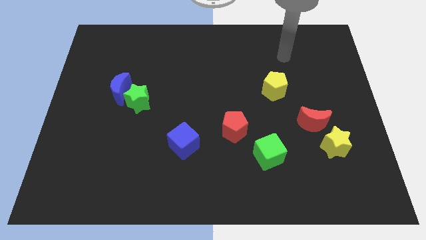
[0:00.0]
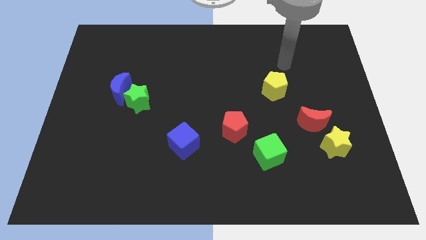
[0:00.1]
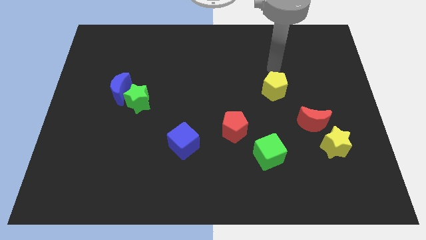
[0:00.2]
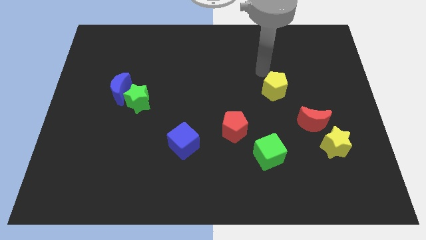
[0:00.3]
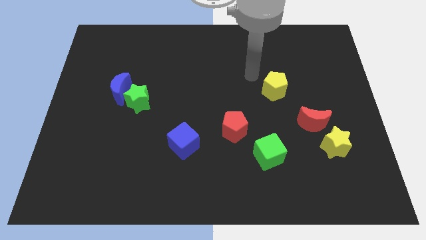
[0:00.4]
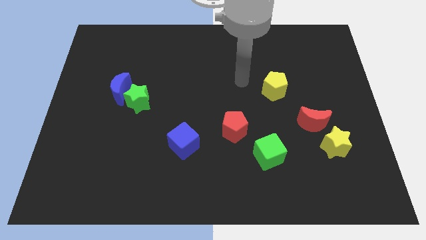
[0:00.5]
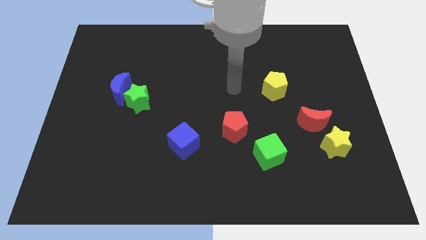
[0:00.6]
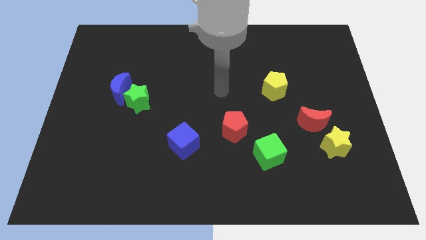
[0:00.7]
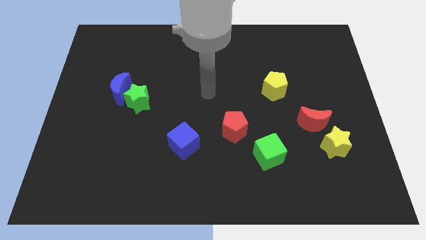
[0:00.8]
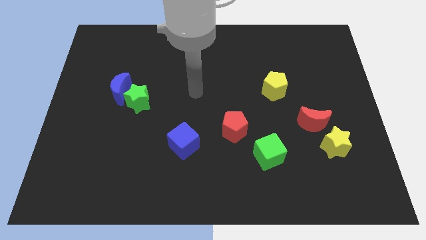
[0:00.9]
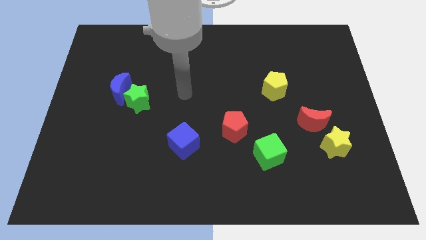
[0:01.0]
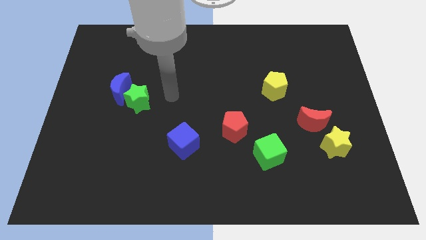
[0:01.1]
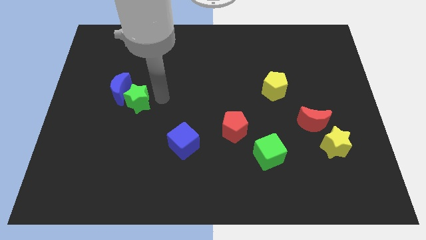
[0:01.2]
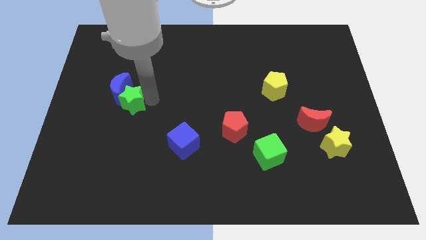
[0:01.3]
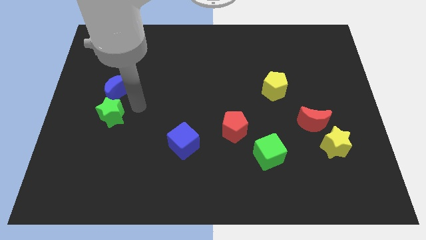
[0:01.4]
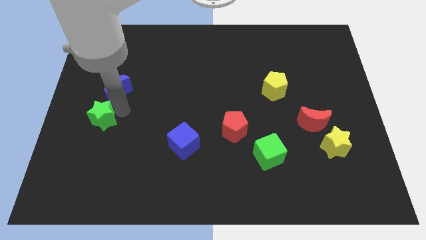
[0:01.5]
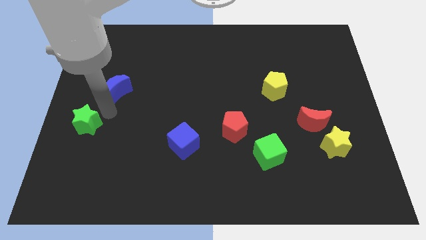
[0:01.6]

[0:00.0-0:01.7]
separate the blue moon from the green star

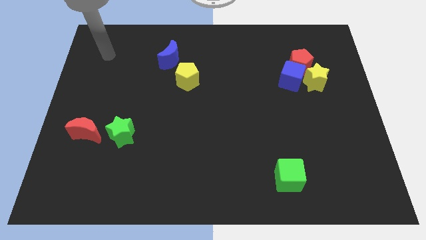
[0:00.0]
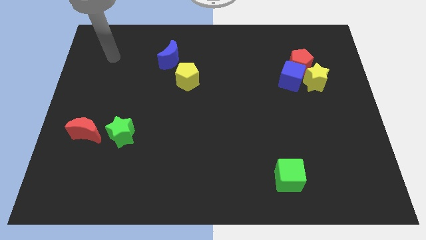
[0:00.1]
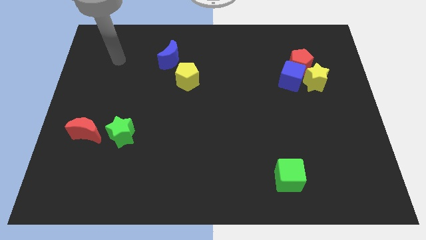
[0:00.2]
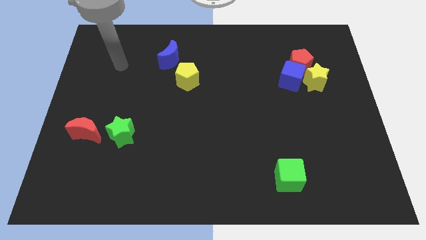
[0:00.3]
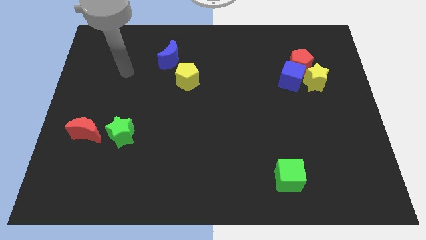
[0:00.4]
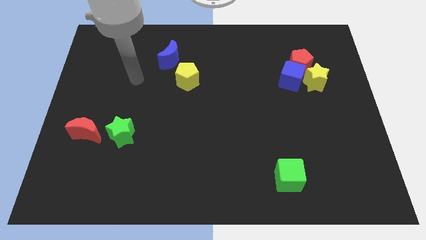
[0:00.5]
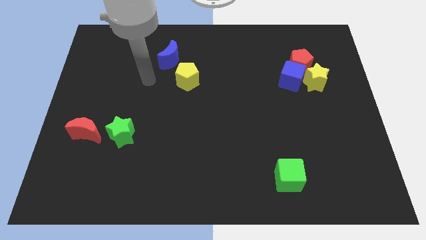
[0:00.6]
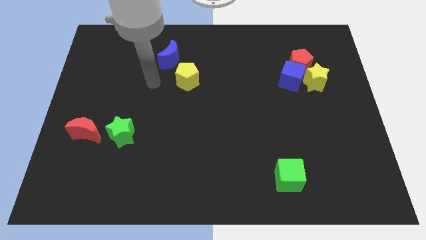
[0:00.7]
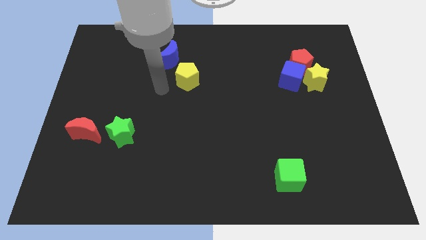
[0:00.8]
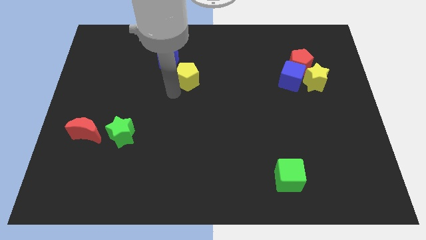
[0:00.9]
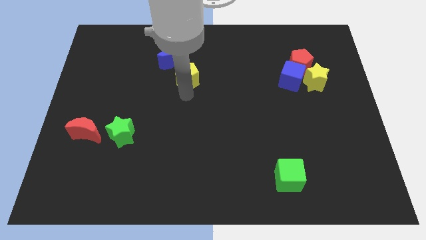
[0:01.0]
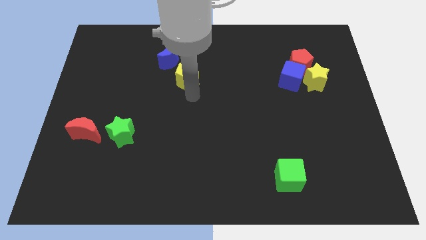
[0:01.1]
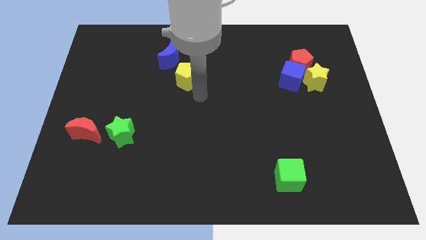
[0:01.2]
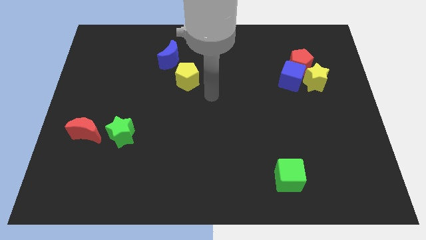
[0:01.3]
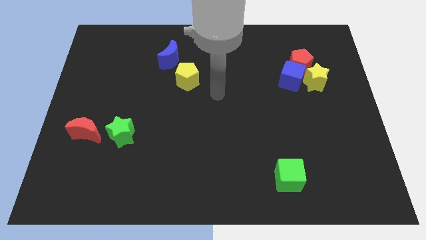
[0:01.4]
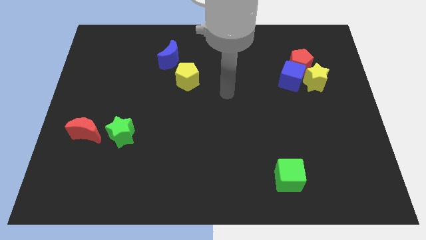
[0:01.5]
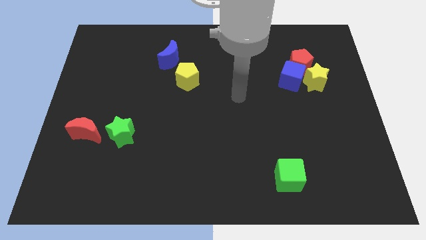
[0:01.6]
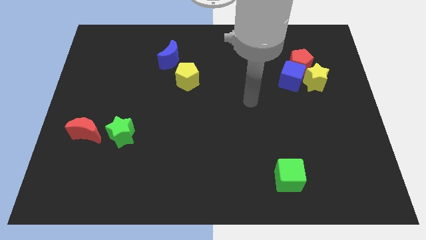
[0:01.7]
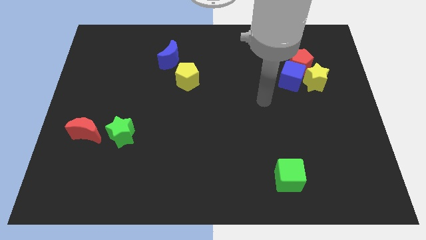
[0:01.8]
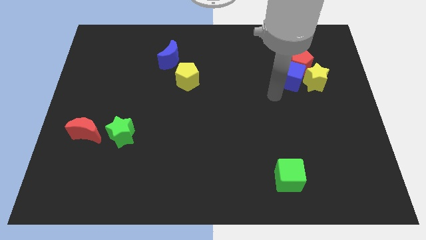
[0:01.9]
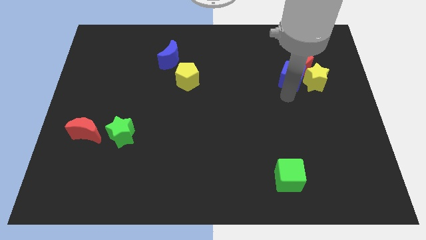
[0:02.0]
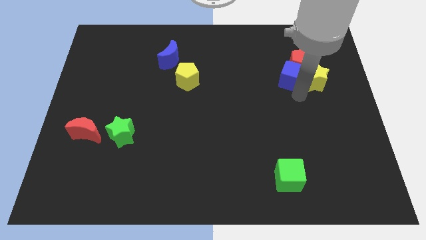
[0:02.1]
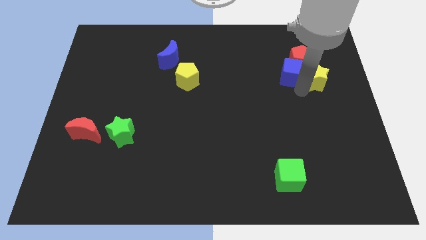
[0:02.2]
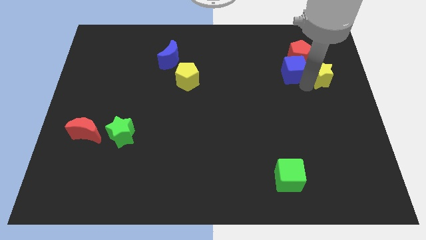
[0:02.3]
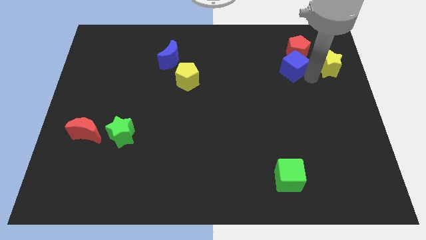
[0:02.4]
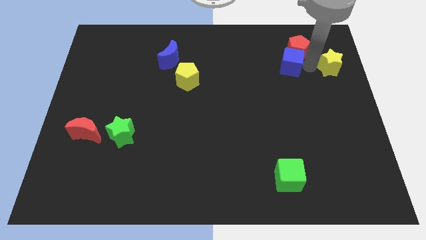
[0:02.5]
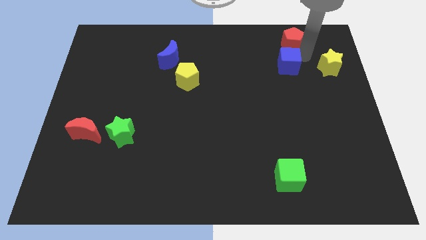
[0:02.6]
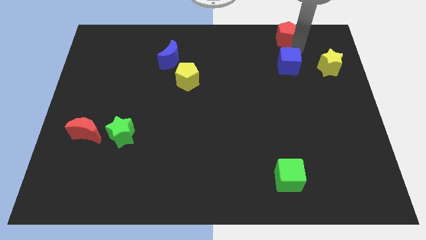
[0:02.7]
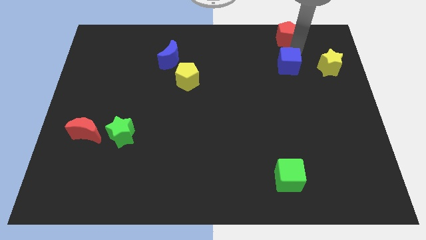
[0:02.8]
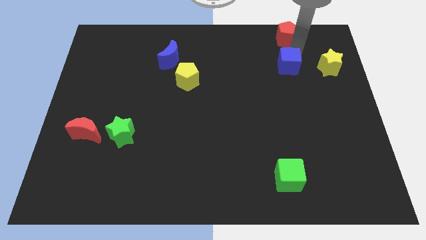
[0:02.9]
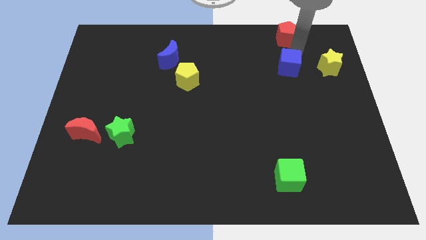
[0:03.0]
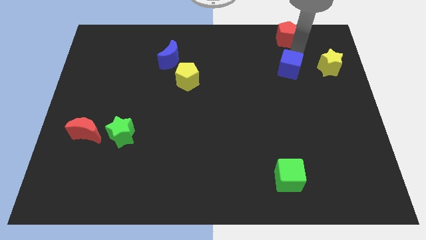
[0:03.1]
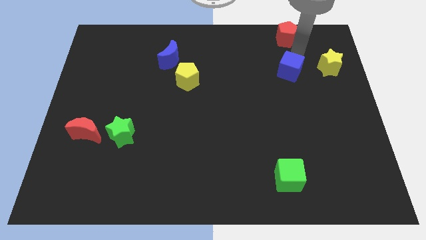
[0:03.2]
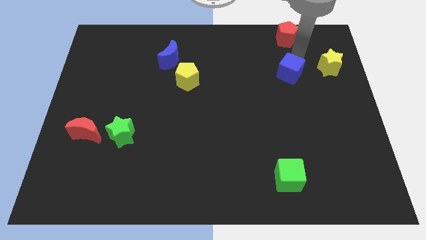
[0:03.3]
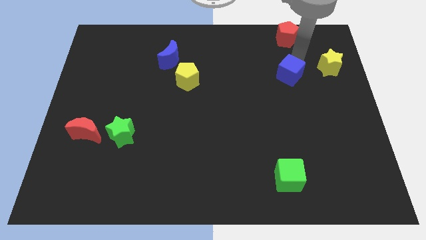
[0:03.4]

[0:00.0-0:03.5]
pull the blue cube apart from the red pentagon and yellow star

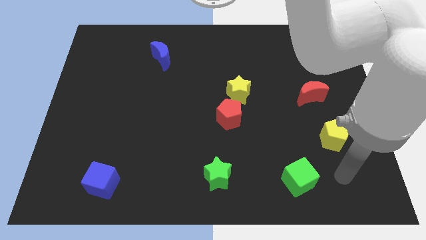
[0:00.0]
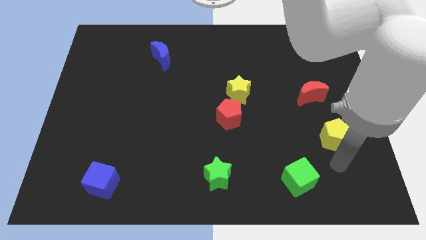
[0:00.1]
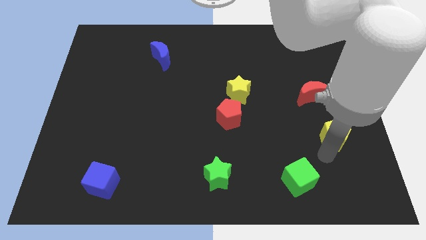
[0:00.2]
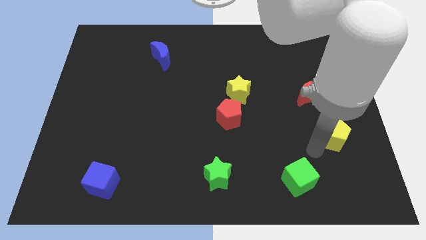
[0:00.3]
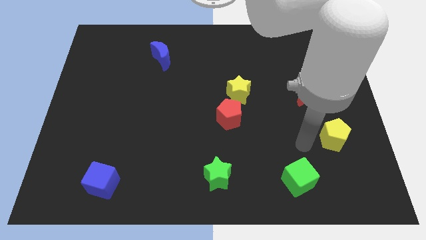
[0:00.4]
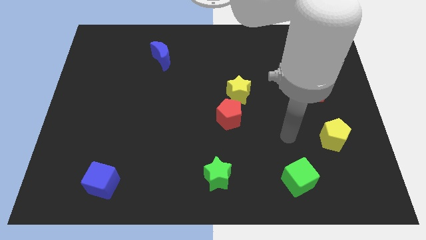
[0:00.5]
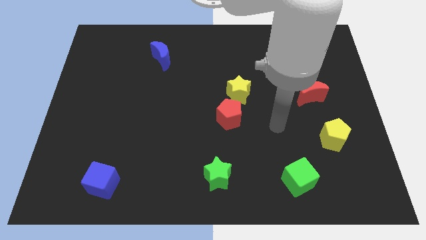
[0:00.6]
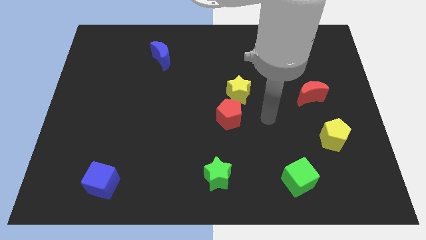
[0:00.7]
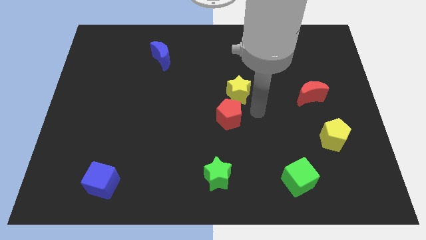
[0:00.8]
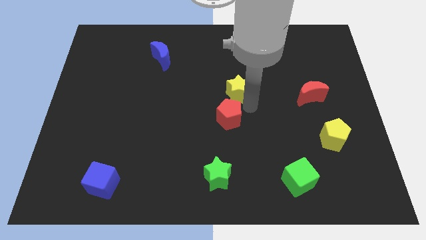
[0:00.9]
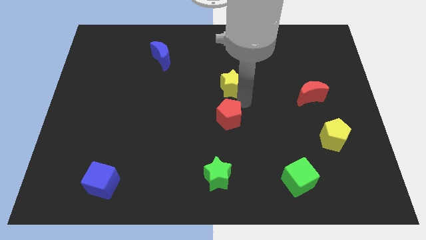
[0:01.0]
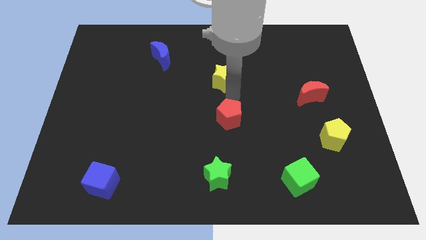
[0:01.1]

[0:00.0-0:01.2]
pull the red pentagon apart from the yellow star

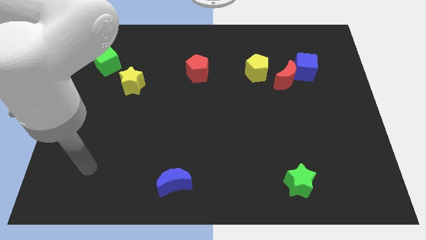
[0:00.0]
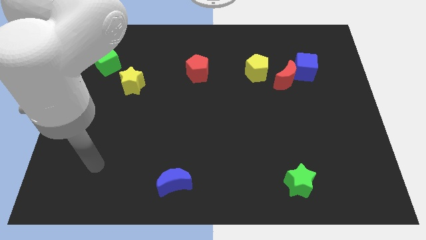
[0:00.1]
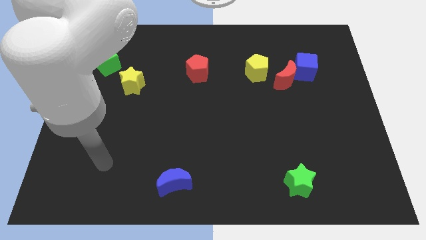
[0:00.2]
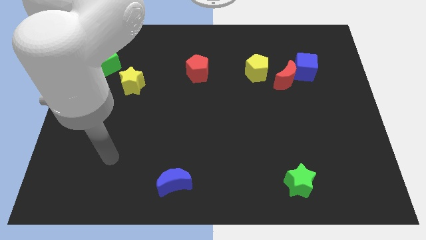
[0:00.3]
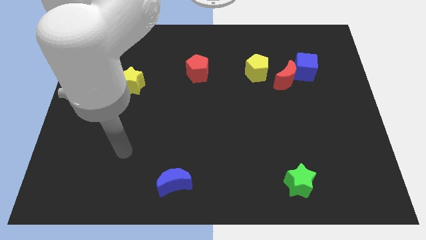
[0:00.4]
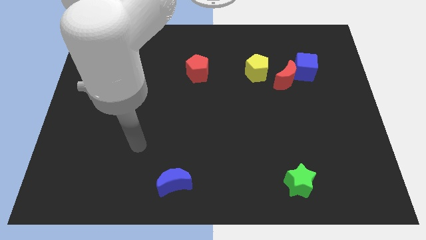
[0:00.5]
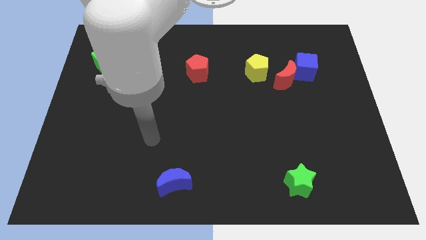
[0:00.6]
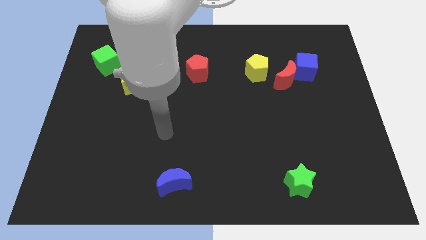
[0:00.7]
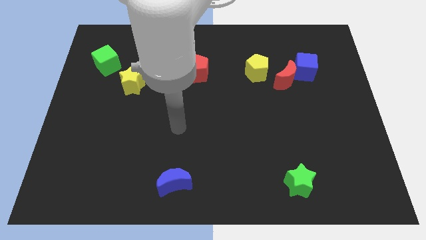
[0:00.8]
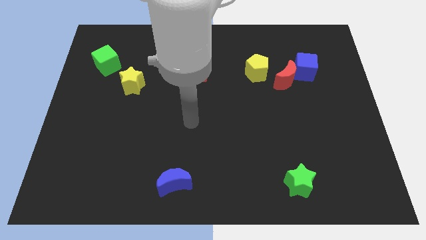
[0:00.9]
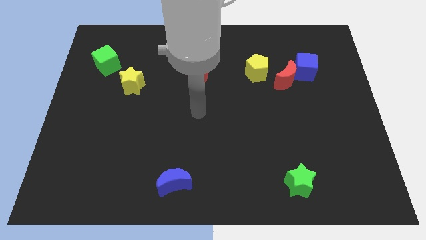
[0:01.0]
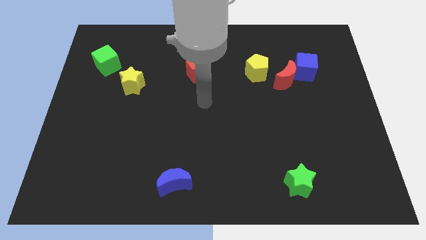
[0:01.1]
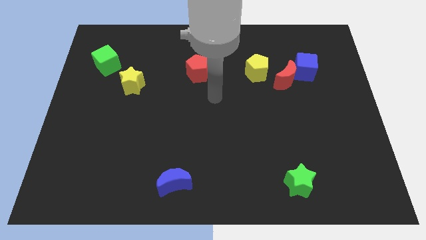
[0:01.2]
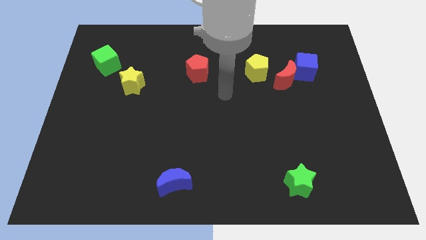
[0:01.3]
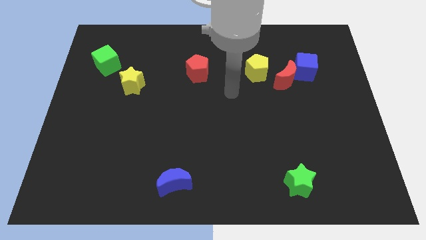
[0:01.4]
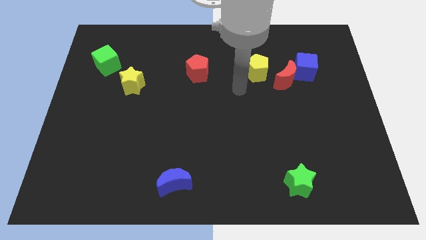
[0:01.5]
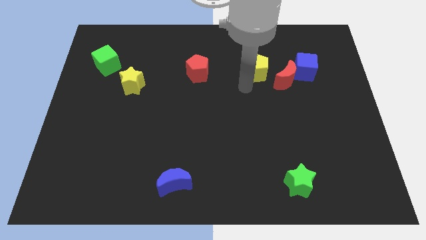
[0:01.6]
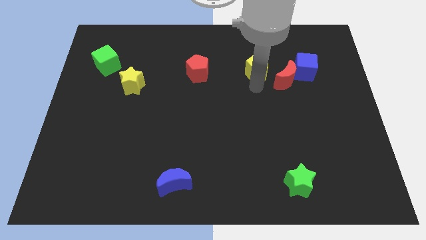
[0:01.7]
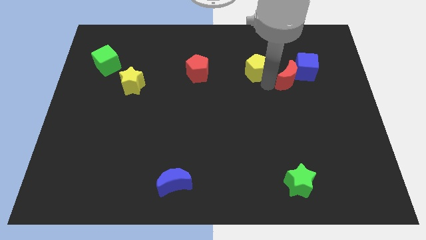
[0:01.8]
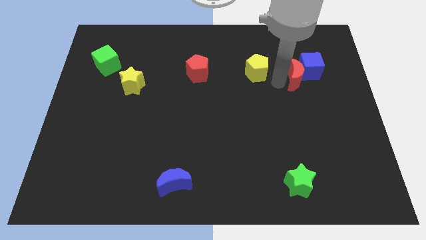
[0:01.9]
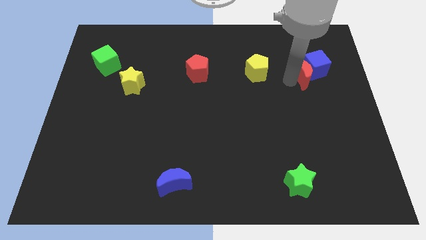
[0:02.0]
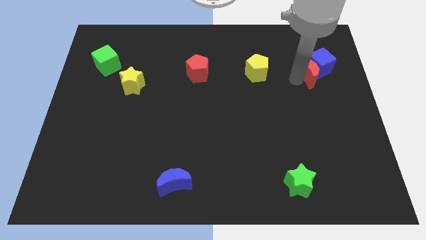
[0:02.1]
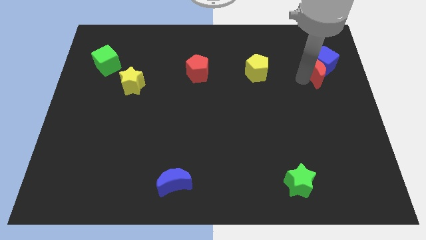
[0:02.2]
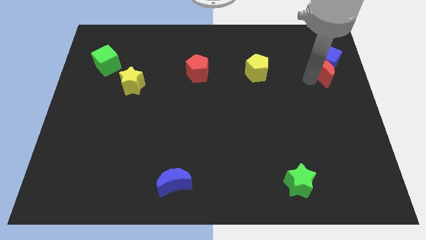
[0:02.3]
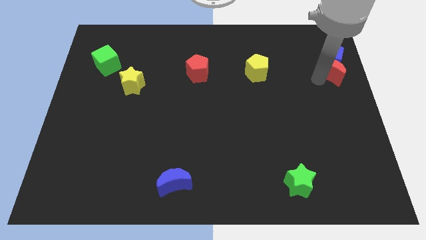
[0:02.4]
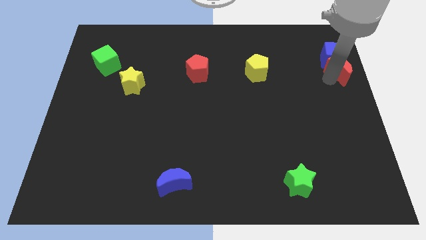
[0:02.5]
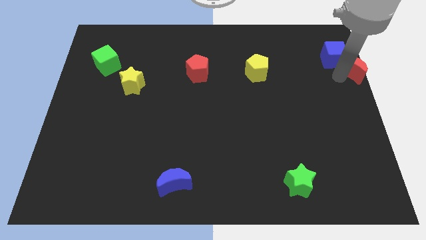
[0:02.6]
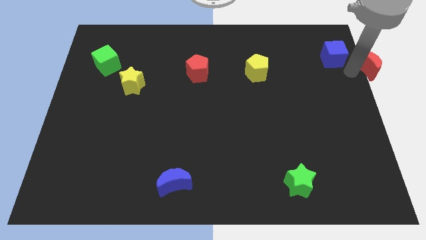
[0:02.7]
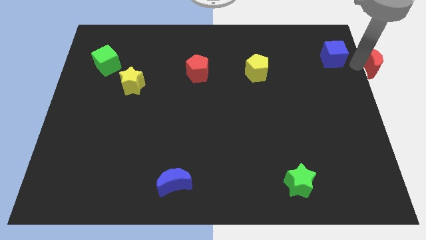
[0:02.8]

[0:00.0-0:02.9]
move the blue cube away from the red moon

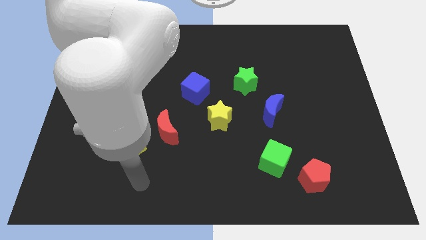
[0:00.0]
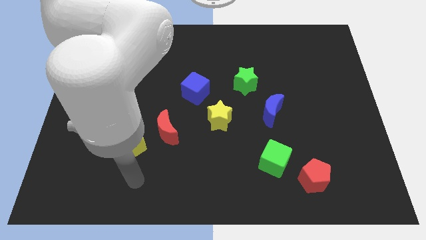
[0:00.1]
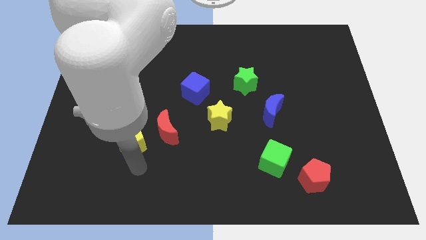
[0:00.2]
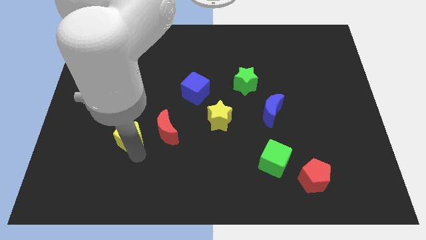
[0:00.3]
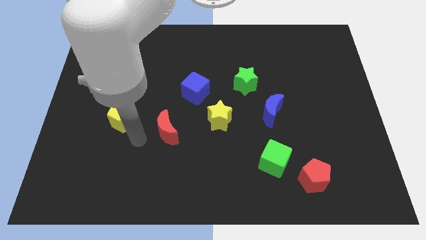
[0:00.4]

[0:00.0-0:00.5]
pull the red moon apart from the yellow pentagon
